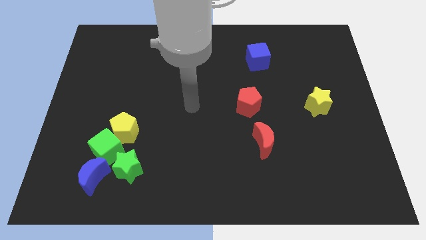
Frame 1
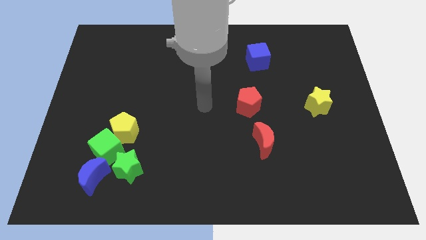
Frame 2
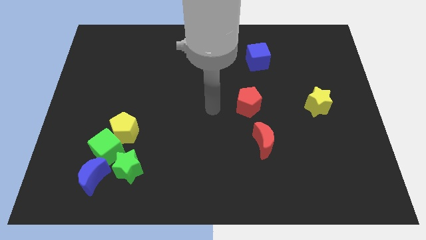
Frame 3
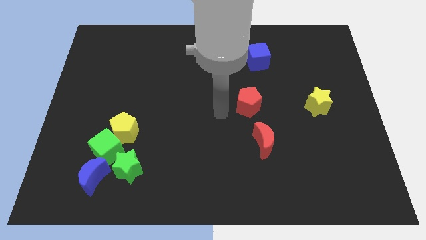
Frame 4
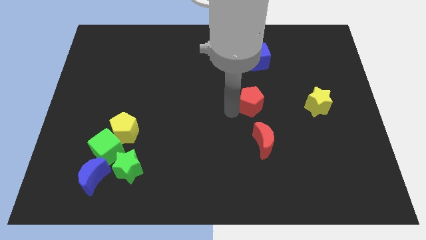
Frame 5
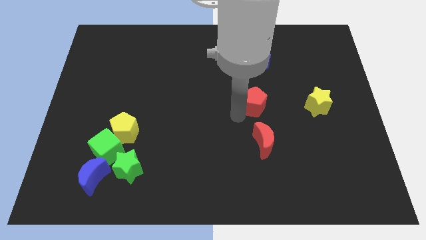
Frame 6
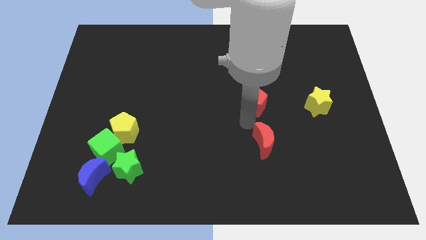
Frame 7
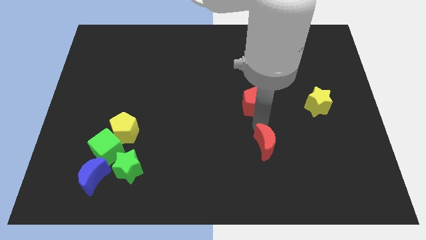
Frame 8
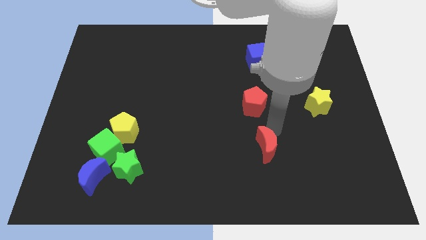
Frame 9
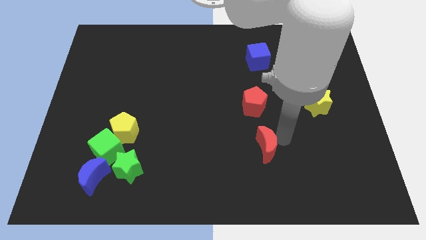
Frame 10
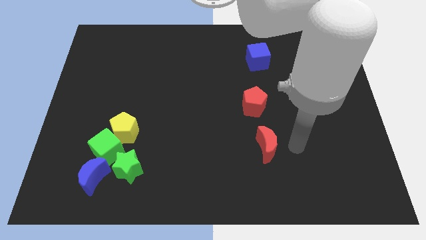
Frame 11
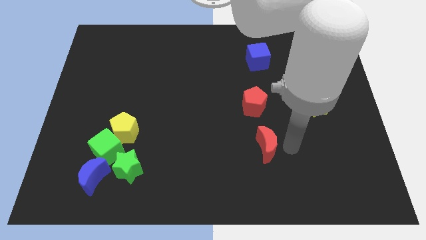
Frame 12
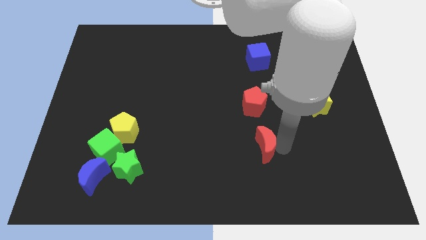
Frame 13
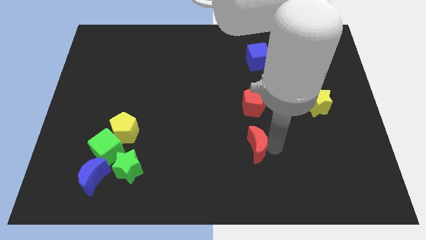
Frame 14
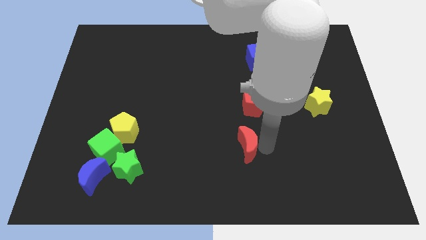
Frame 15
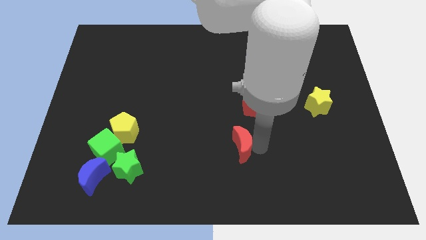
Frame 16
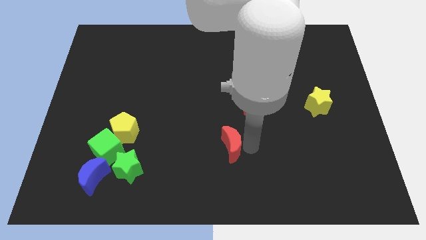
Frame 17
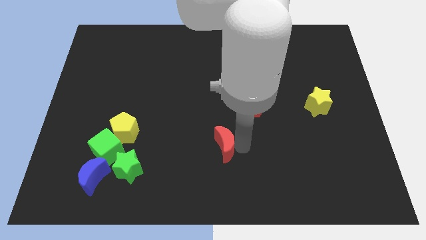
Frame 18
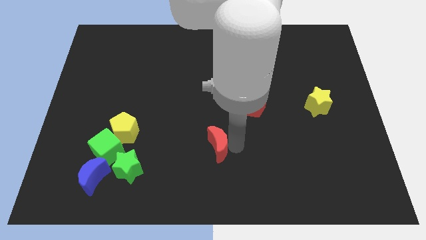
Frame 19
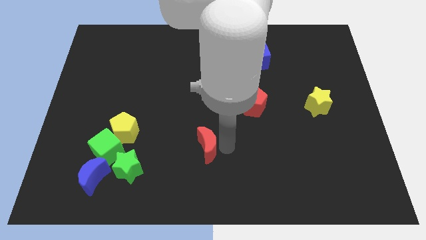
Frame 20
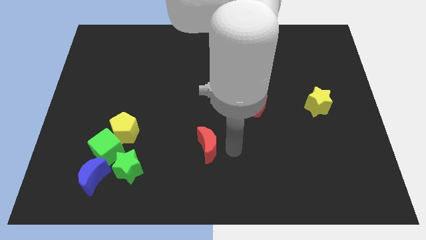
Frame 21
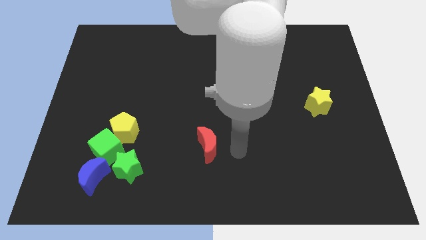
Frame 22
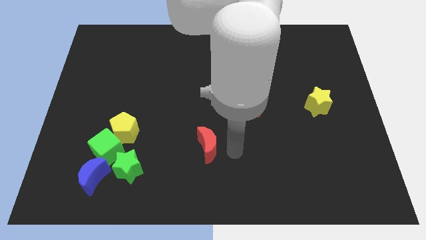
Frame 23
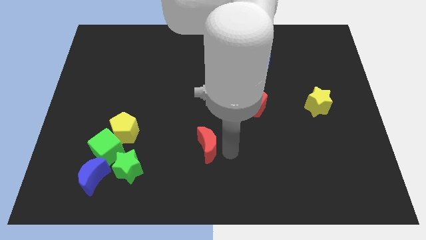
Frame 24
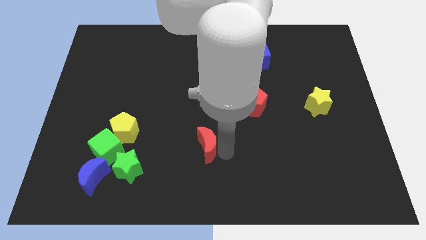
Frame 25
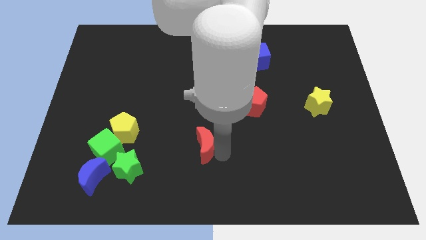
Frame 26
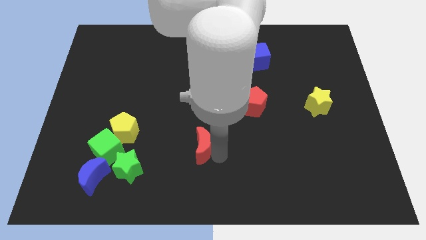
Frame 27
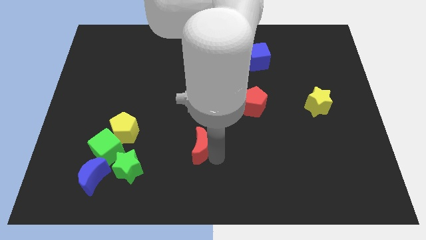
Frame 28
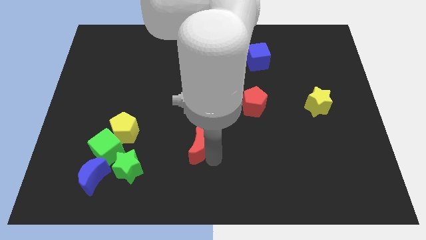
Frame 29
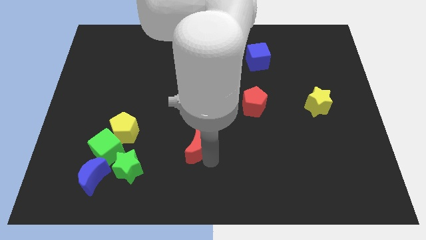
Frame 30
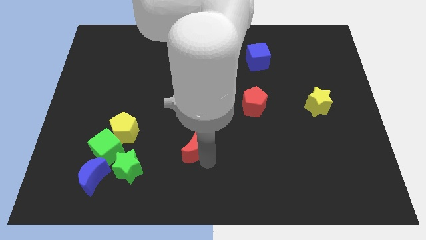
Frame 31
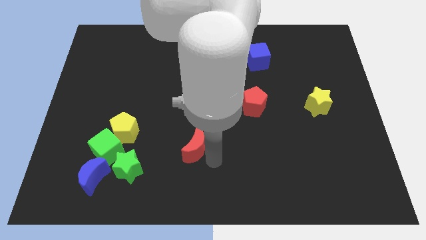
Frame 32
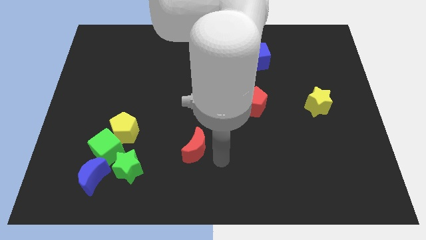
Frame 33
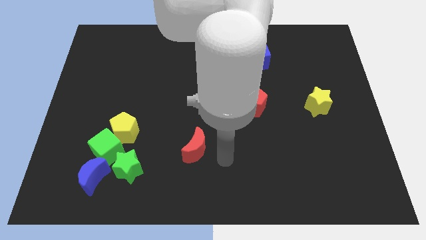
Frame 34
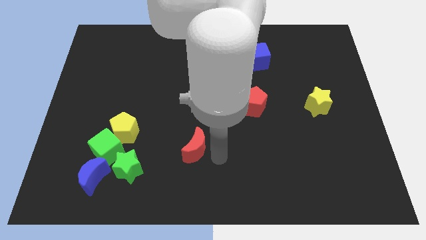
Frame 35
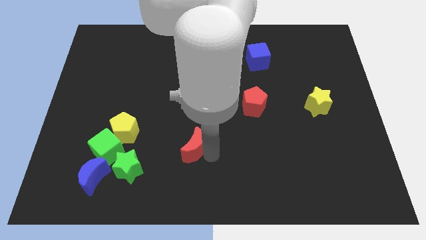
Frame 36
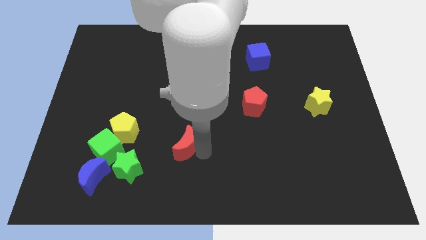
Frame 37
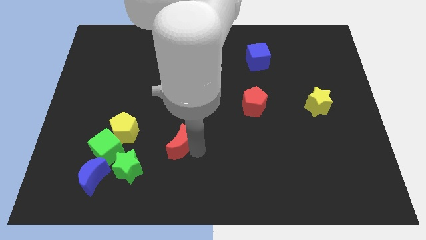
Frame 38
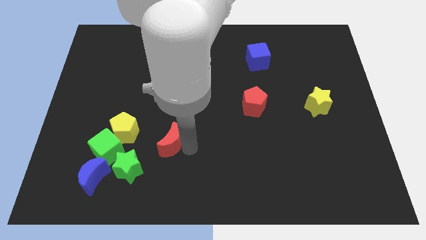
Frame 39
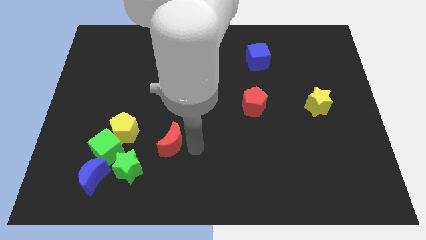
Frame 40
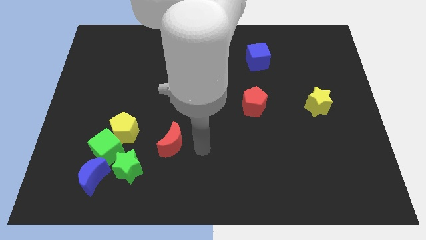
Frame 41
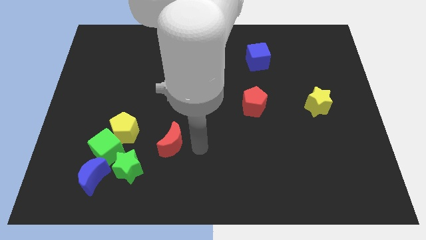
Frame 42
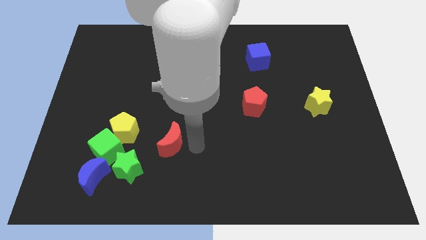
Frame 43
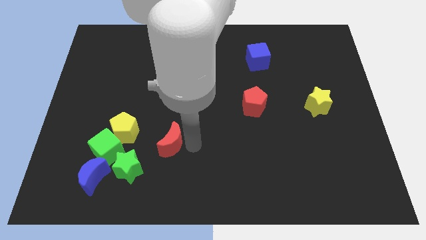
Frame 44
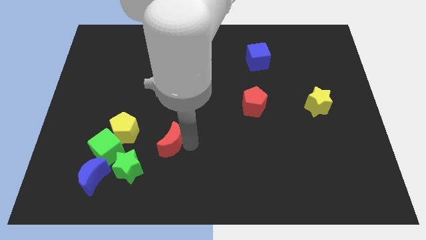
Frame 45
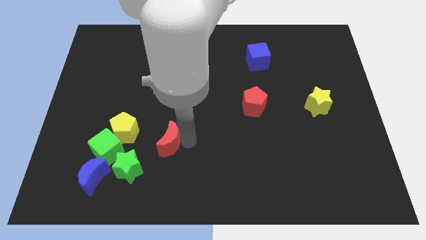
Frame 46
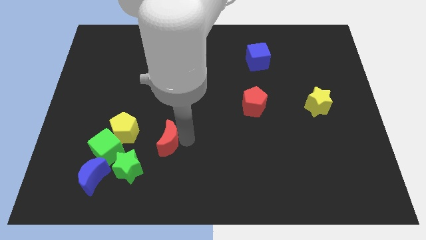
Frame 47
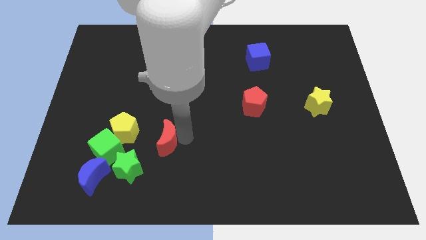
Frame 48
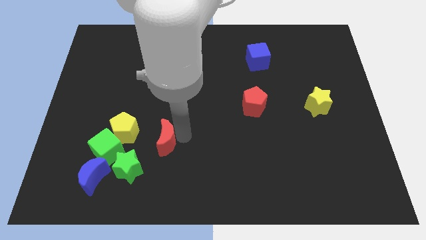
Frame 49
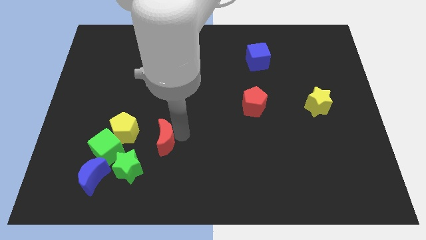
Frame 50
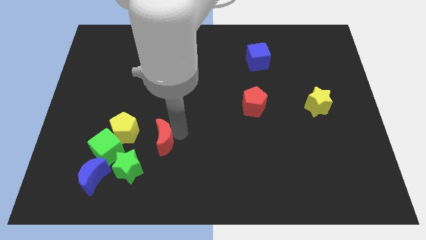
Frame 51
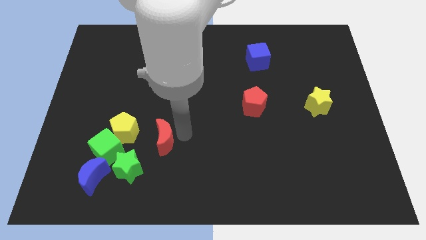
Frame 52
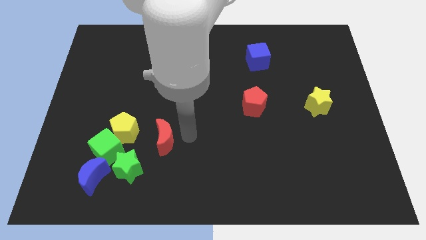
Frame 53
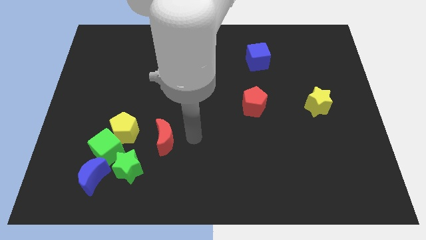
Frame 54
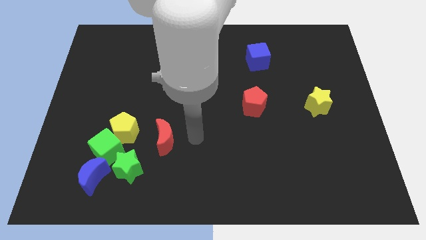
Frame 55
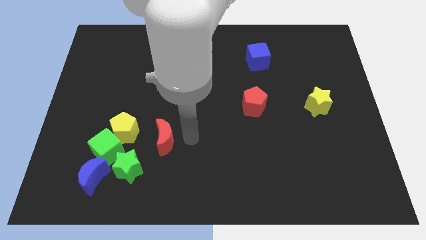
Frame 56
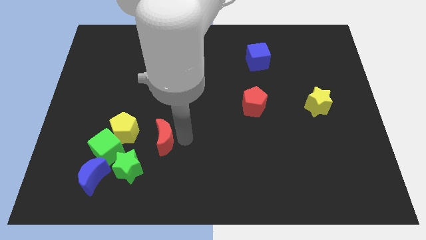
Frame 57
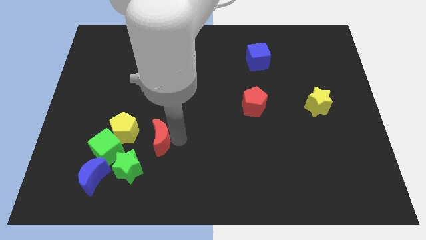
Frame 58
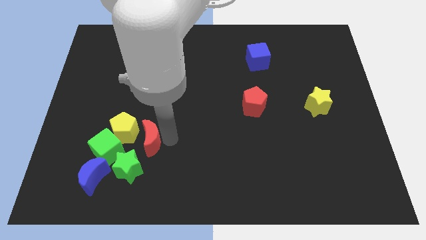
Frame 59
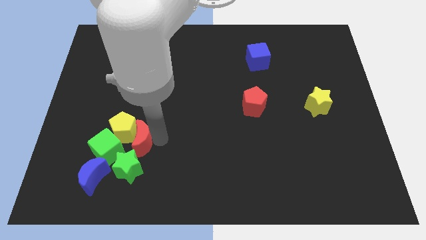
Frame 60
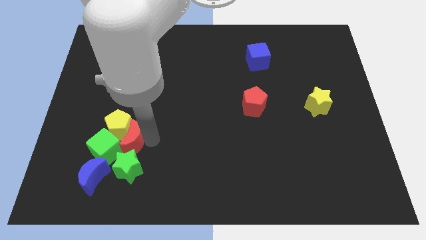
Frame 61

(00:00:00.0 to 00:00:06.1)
move the red moon next to the green cube

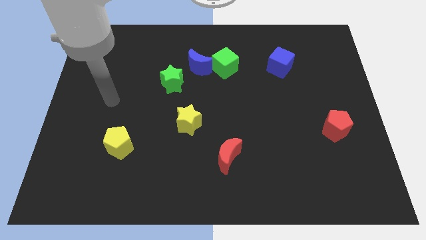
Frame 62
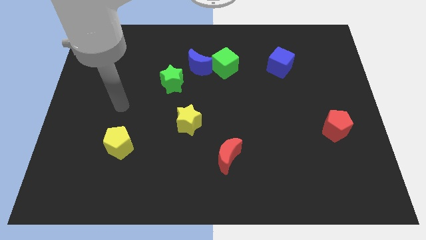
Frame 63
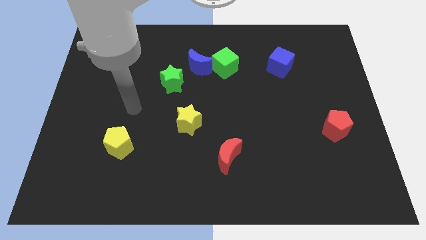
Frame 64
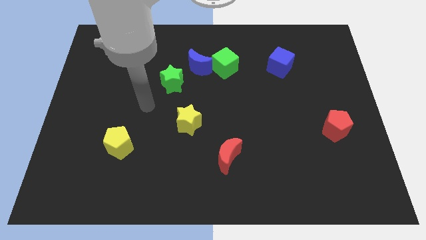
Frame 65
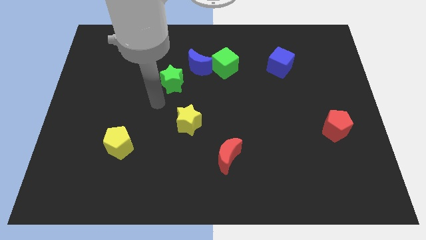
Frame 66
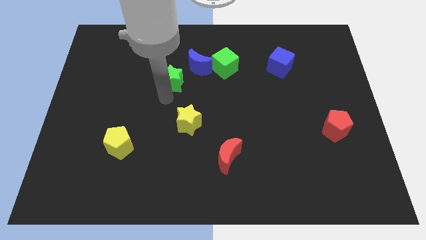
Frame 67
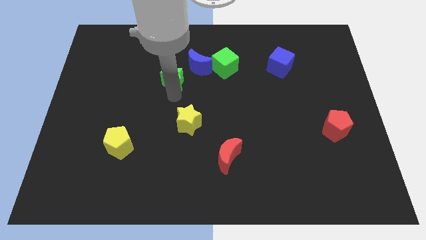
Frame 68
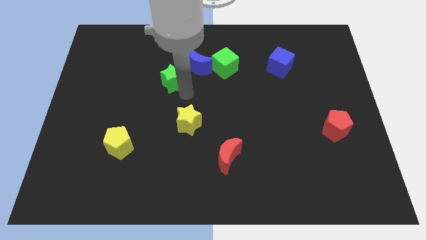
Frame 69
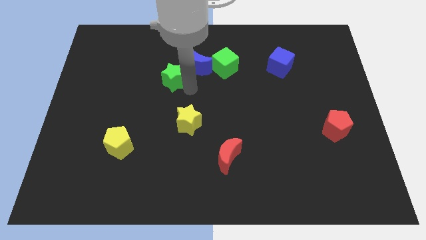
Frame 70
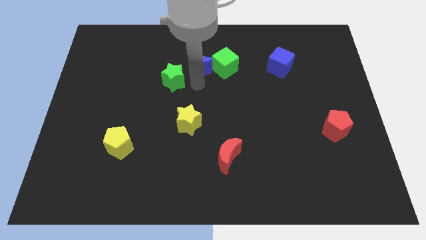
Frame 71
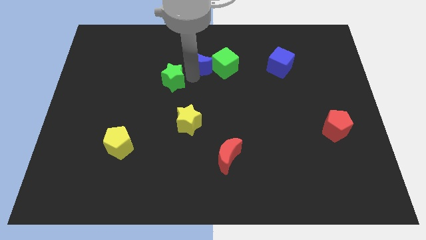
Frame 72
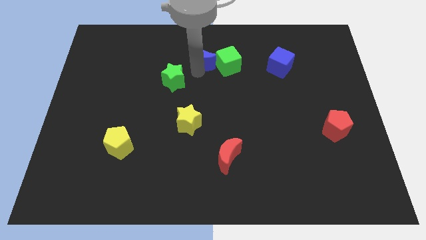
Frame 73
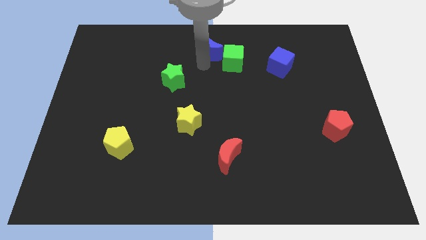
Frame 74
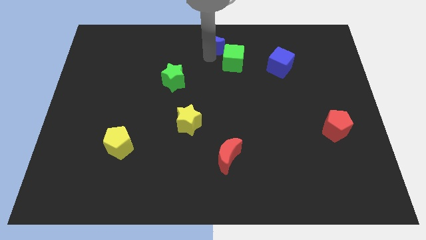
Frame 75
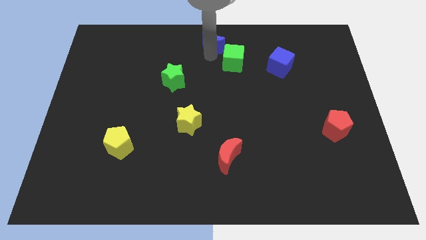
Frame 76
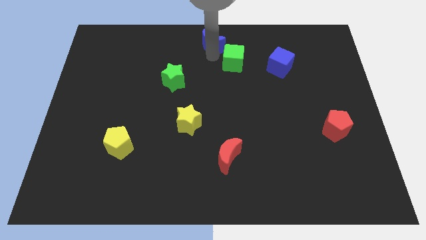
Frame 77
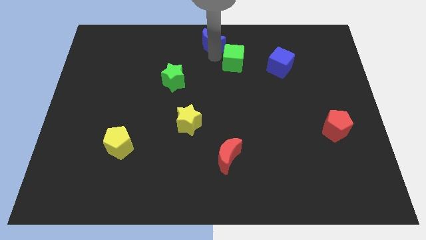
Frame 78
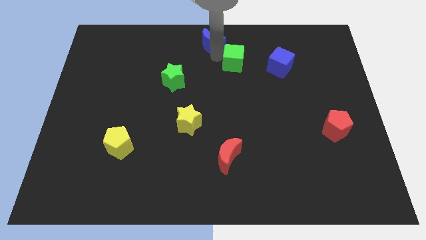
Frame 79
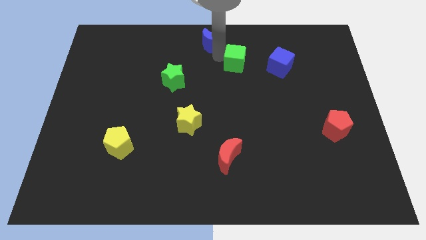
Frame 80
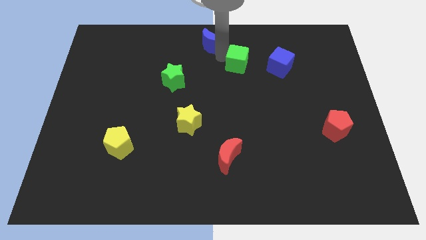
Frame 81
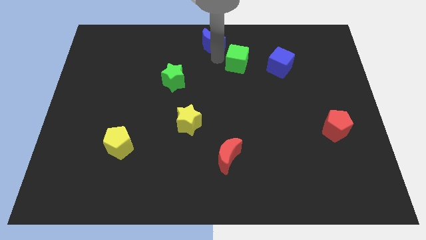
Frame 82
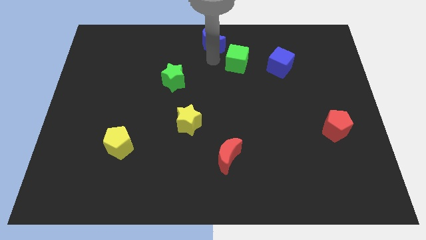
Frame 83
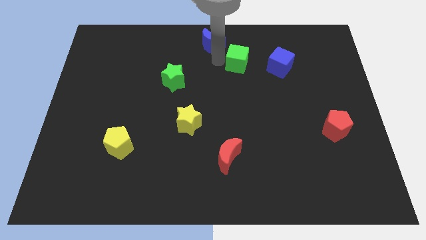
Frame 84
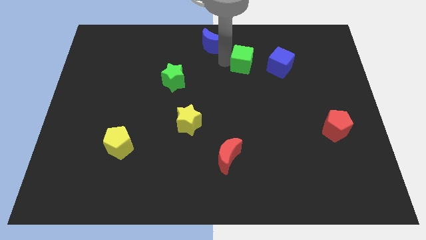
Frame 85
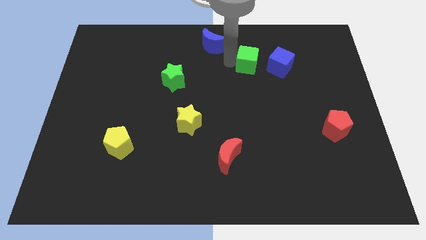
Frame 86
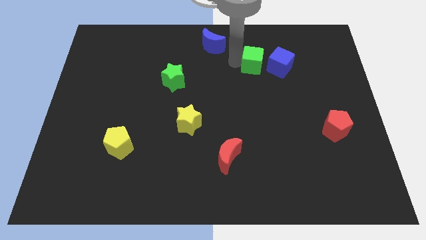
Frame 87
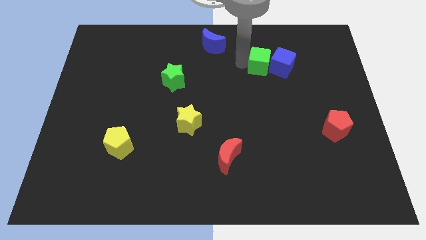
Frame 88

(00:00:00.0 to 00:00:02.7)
move the green cube next to the blue cube
